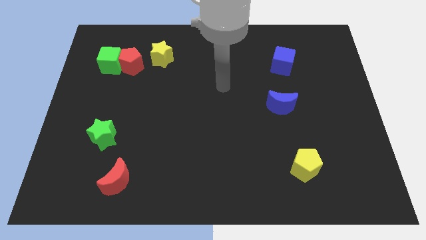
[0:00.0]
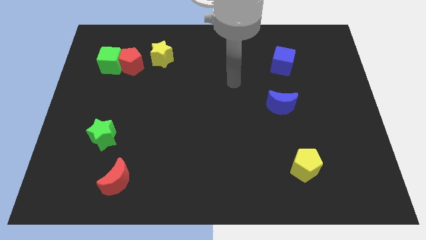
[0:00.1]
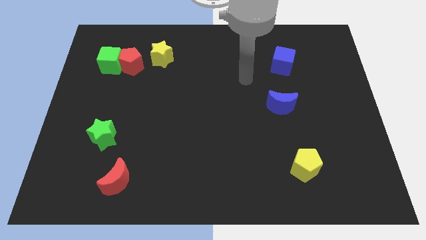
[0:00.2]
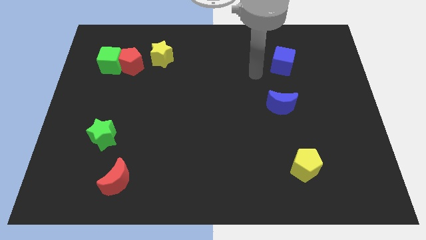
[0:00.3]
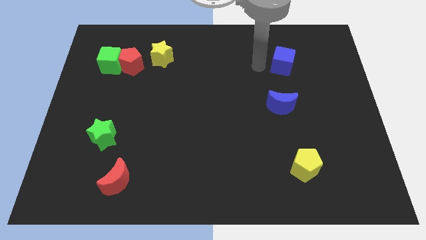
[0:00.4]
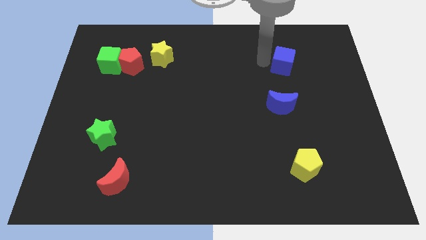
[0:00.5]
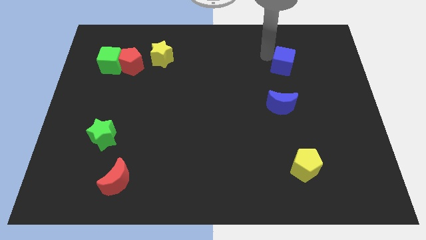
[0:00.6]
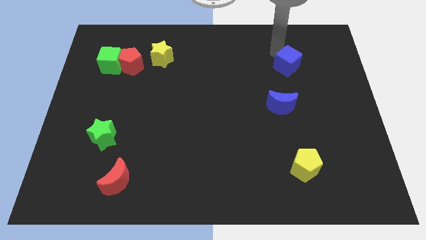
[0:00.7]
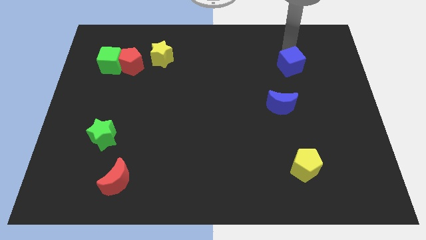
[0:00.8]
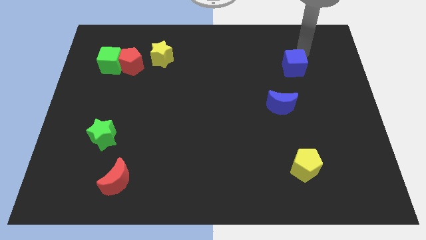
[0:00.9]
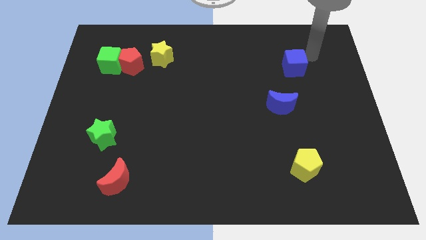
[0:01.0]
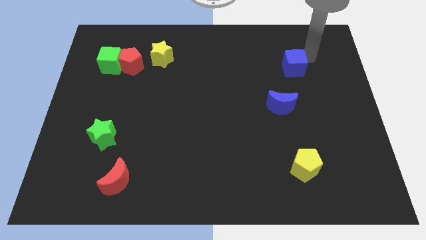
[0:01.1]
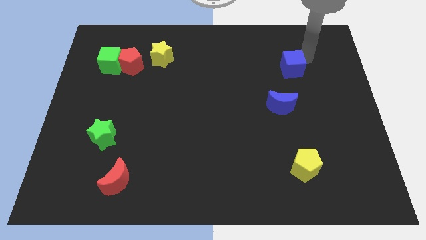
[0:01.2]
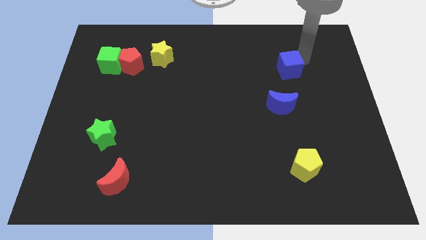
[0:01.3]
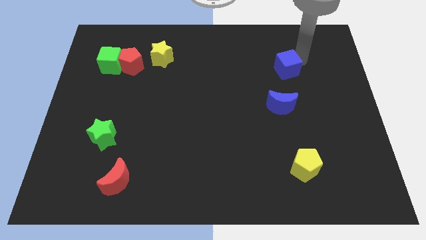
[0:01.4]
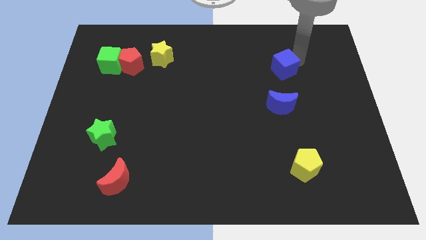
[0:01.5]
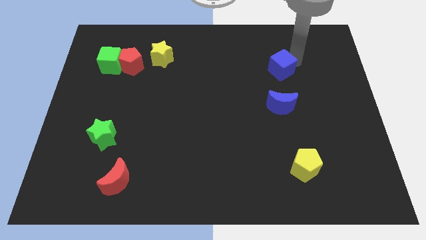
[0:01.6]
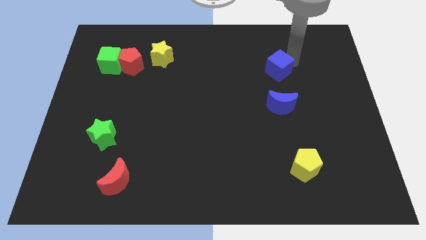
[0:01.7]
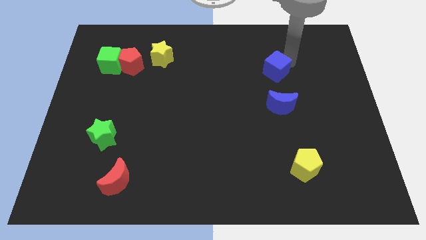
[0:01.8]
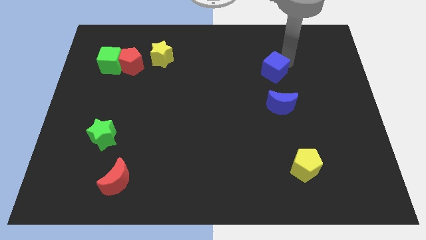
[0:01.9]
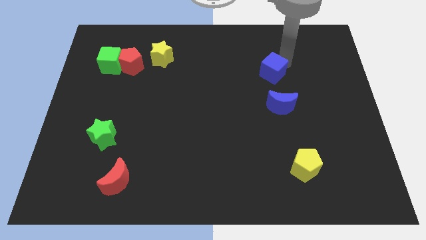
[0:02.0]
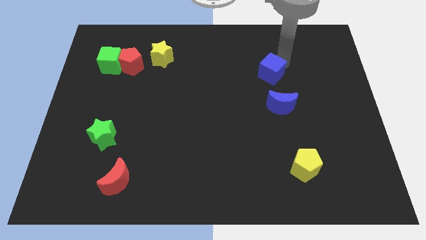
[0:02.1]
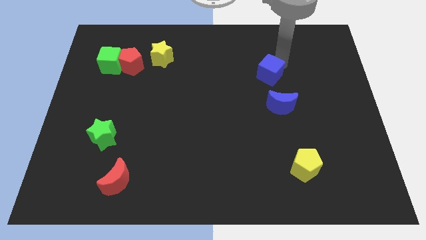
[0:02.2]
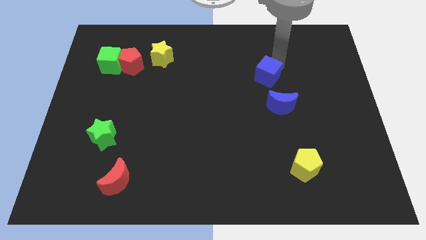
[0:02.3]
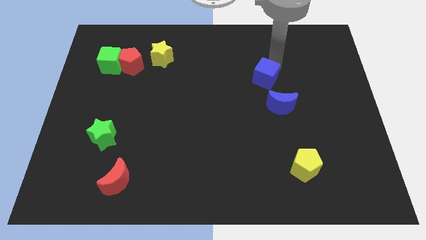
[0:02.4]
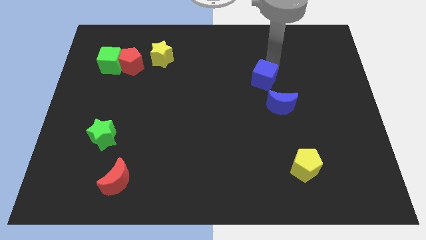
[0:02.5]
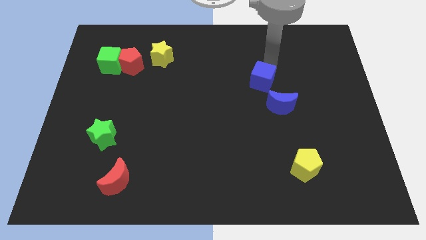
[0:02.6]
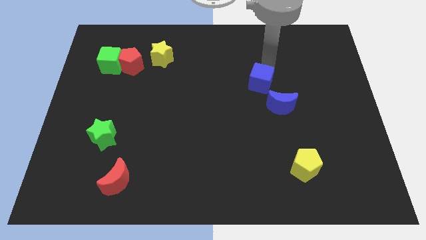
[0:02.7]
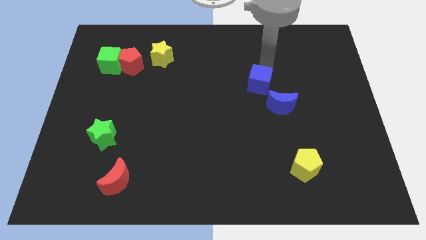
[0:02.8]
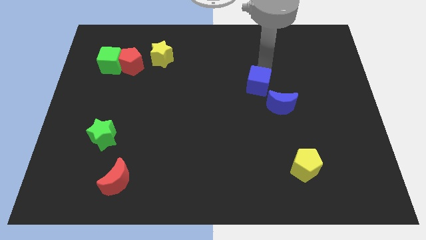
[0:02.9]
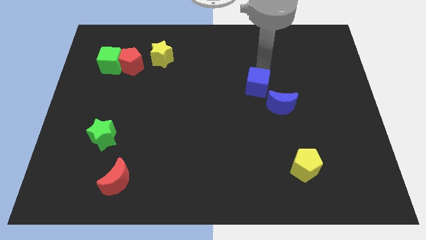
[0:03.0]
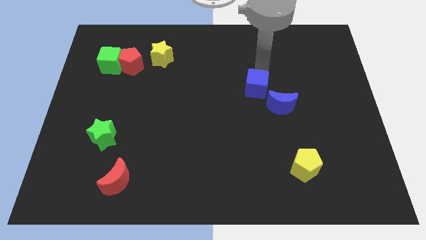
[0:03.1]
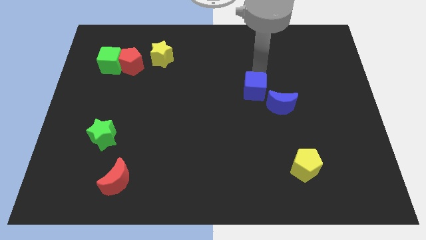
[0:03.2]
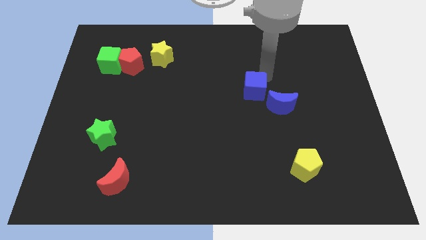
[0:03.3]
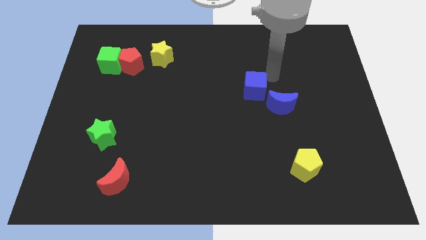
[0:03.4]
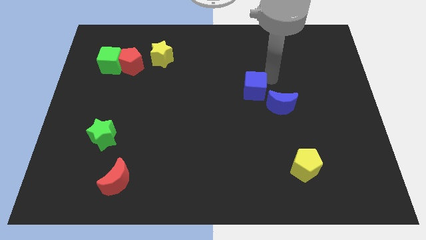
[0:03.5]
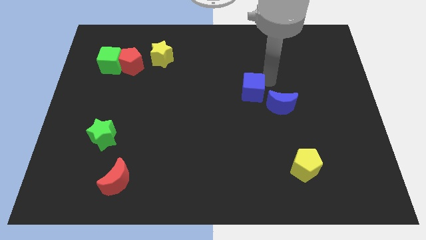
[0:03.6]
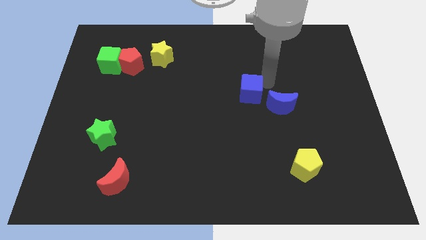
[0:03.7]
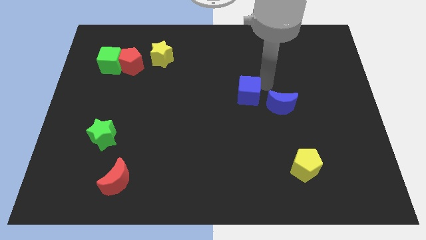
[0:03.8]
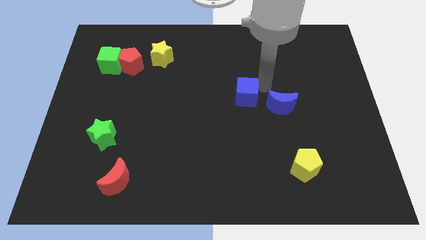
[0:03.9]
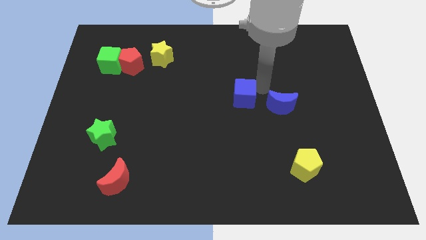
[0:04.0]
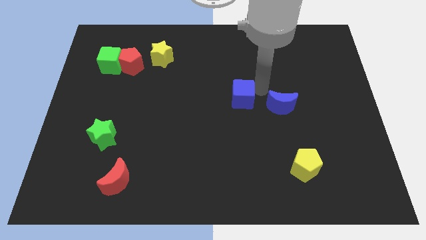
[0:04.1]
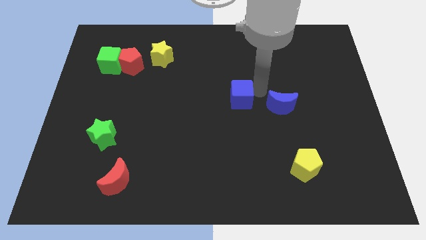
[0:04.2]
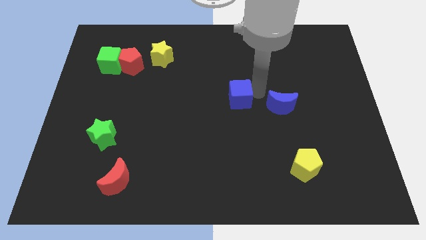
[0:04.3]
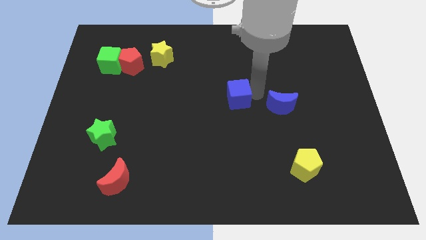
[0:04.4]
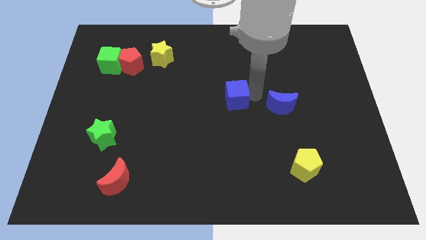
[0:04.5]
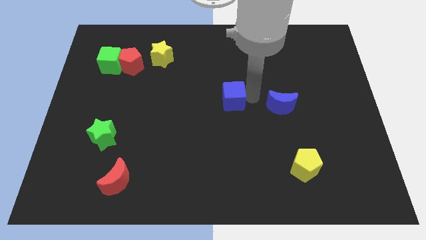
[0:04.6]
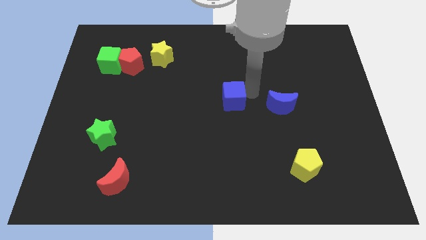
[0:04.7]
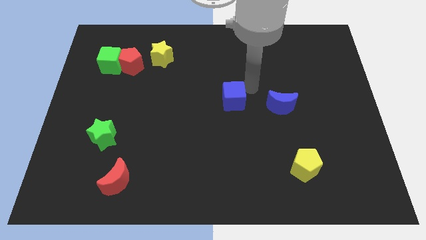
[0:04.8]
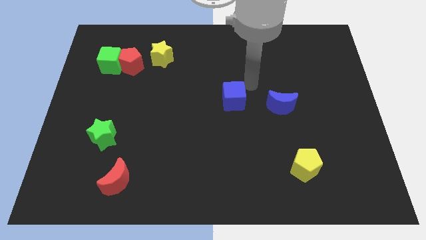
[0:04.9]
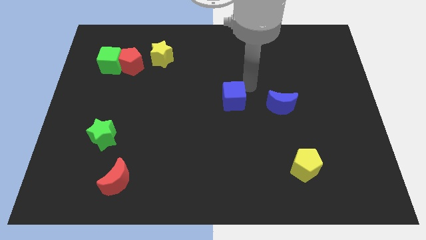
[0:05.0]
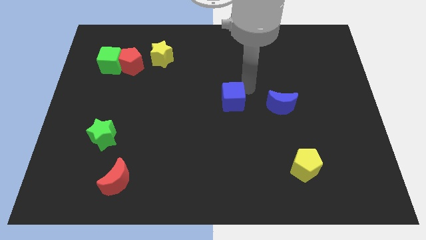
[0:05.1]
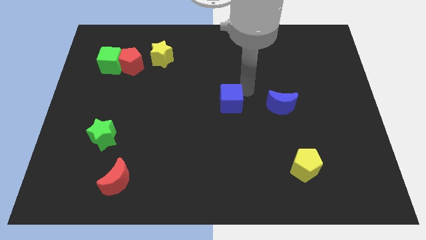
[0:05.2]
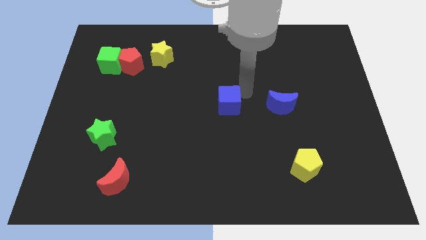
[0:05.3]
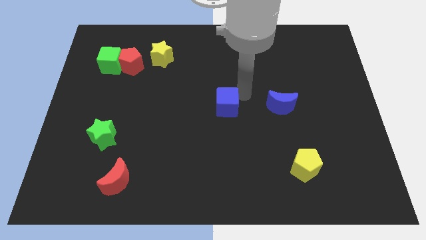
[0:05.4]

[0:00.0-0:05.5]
move the blue cube down and then left

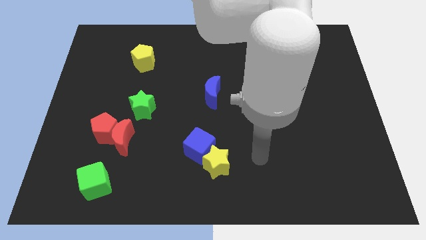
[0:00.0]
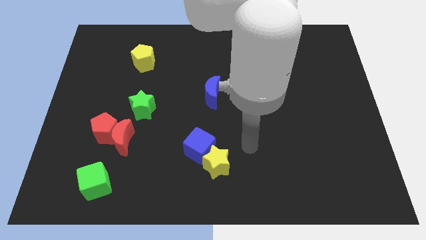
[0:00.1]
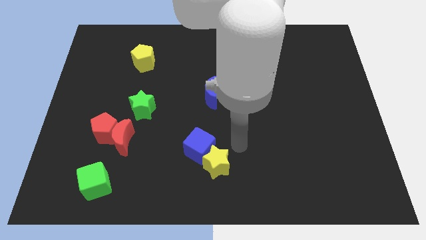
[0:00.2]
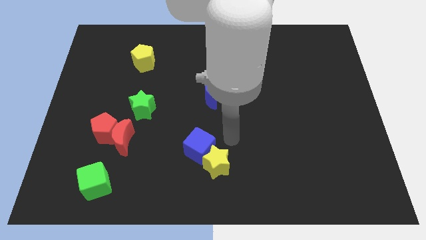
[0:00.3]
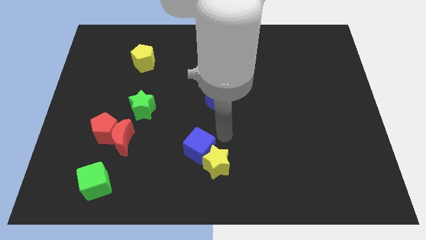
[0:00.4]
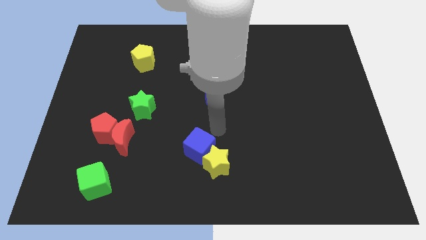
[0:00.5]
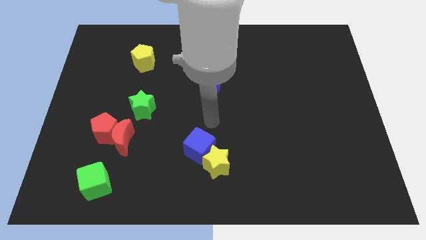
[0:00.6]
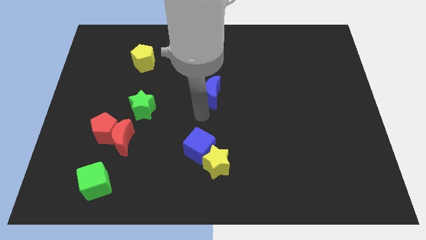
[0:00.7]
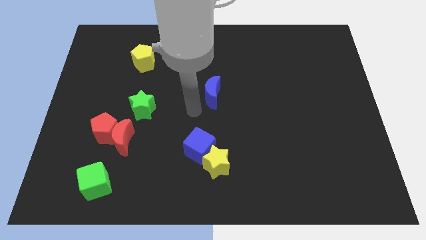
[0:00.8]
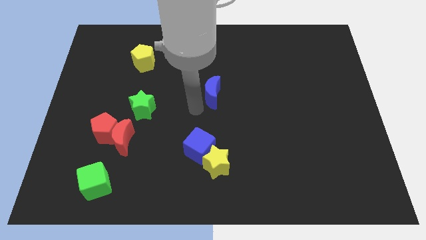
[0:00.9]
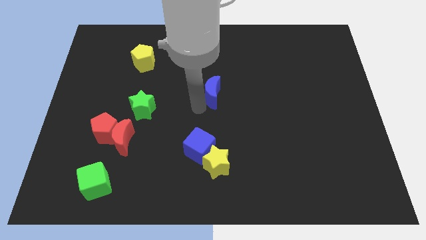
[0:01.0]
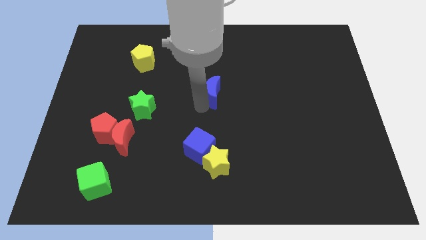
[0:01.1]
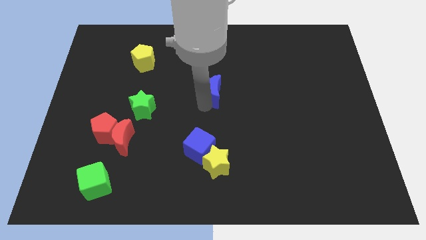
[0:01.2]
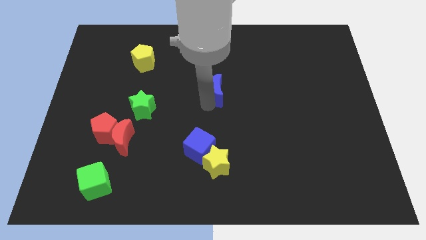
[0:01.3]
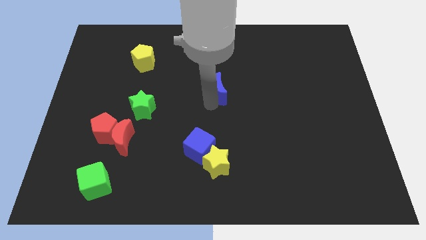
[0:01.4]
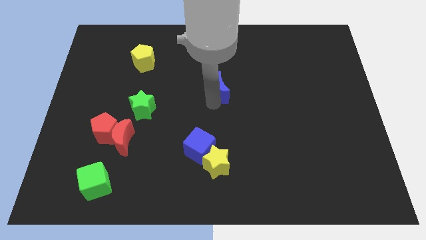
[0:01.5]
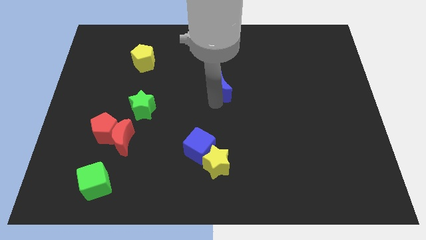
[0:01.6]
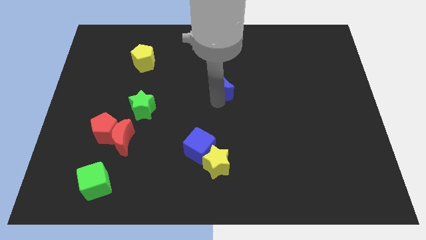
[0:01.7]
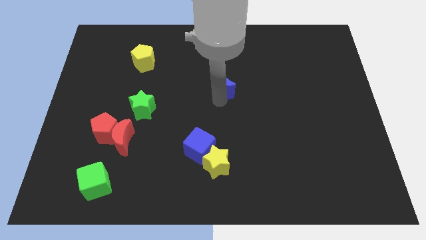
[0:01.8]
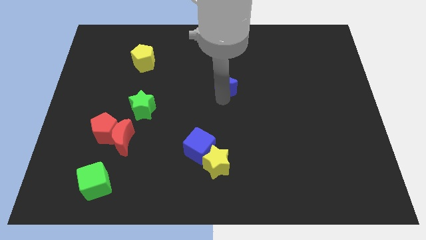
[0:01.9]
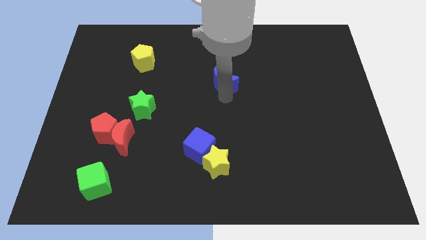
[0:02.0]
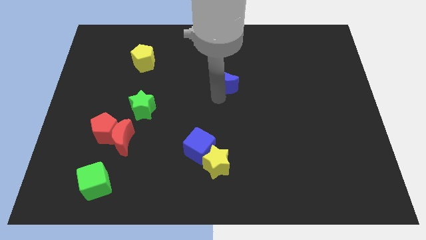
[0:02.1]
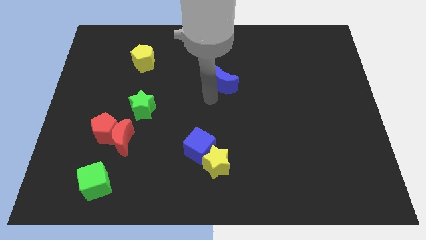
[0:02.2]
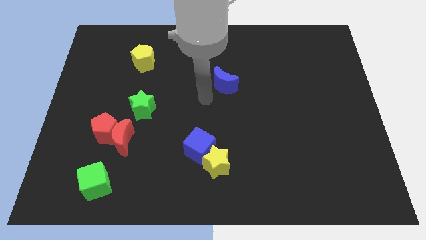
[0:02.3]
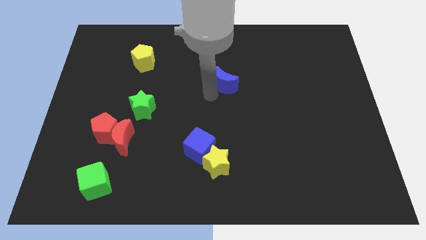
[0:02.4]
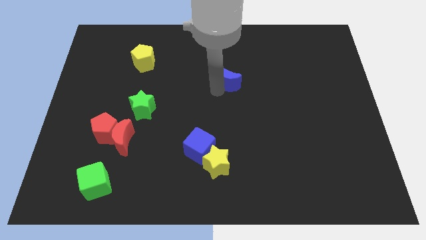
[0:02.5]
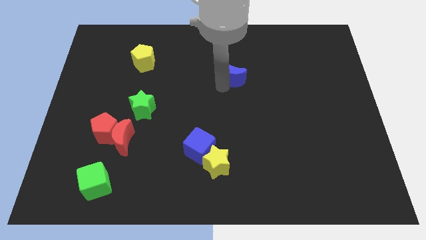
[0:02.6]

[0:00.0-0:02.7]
slightly push the blue moon upwards and right diagonally
